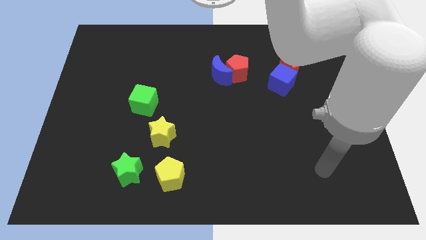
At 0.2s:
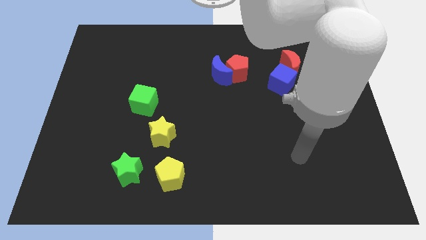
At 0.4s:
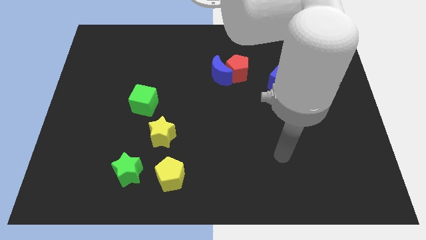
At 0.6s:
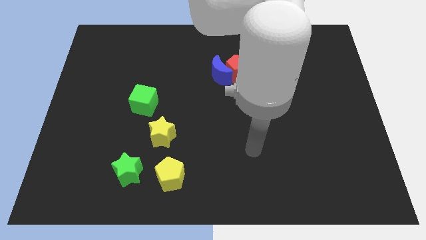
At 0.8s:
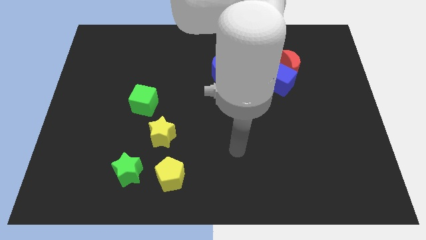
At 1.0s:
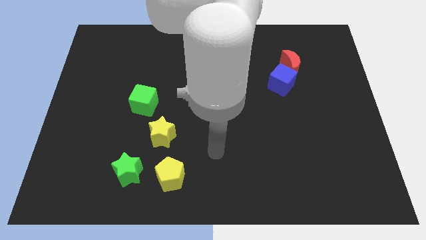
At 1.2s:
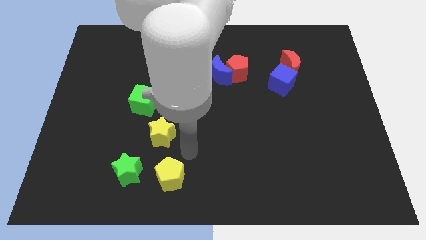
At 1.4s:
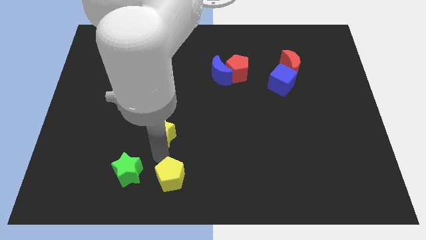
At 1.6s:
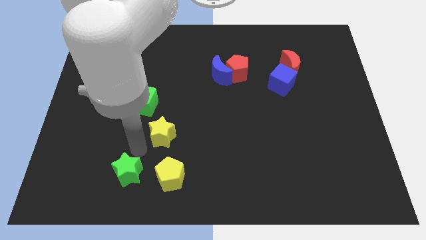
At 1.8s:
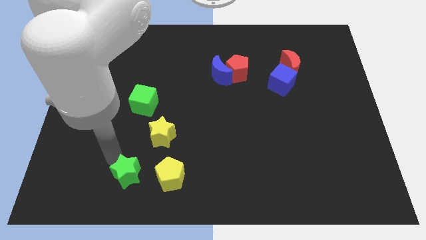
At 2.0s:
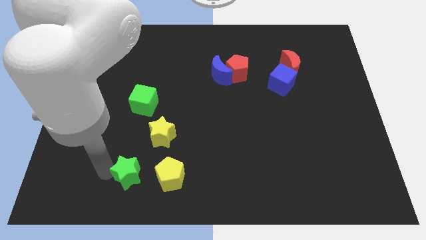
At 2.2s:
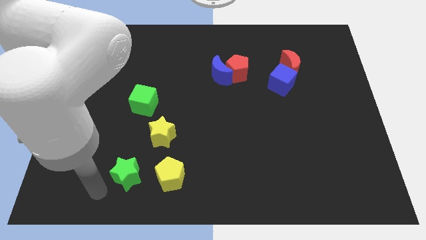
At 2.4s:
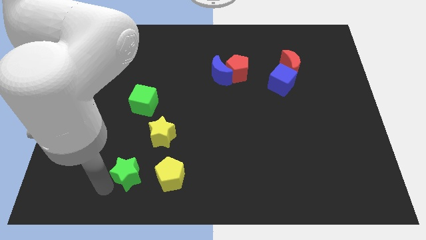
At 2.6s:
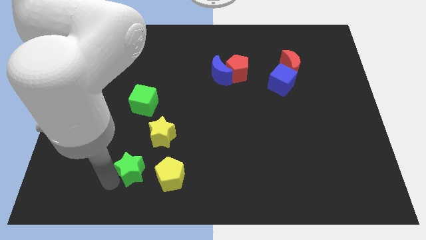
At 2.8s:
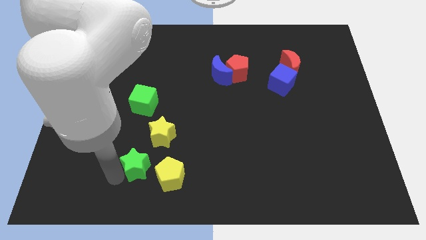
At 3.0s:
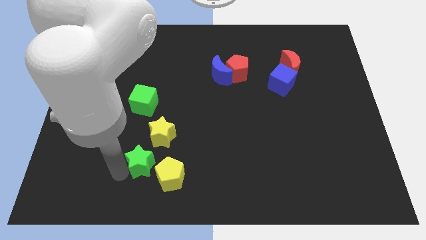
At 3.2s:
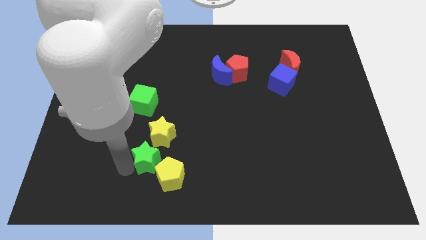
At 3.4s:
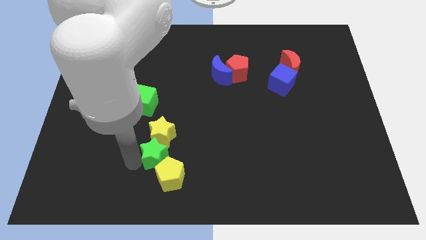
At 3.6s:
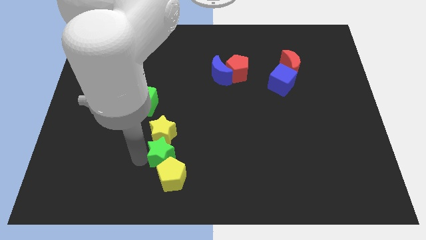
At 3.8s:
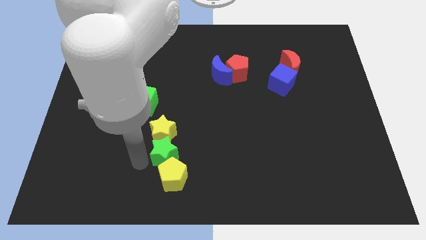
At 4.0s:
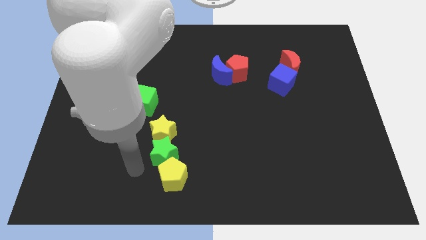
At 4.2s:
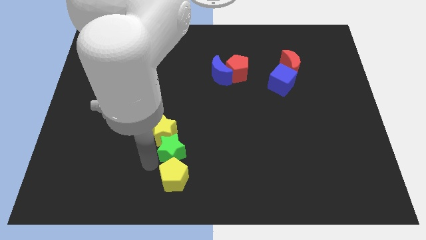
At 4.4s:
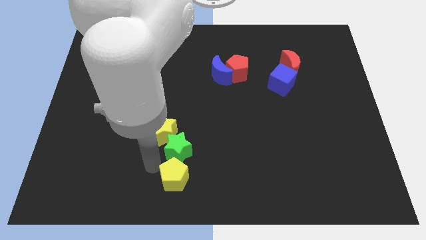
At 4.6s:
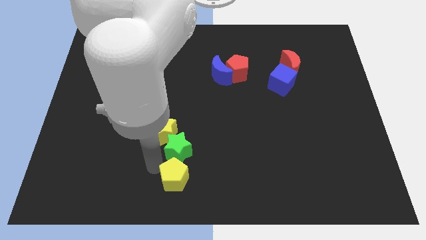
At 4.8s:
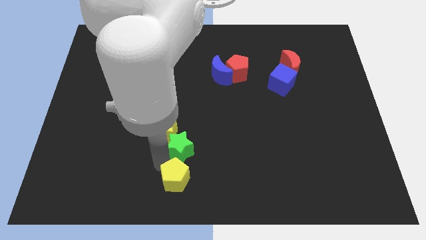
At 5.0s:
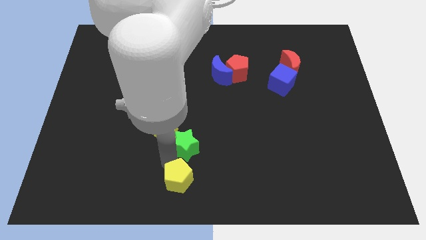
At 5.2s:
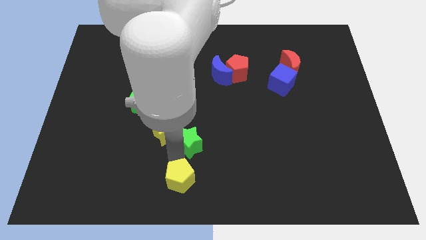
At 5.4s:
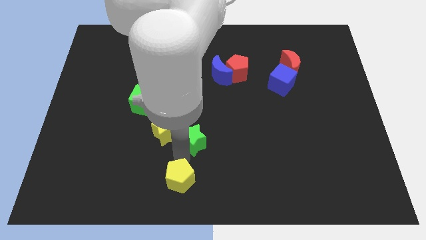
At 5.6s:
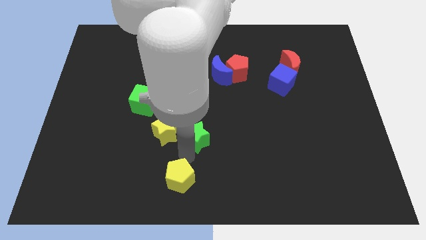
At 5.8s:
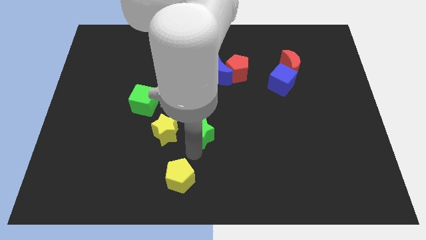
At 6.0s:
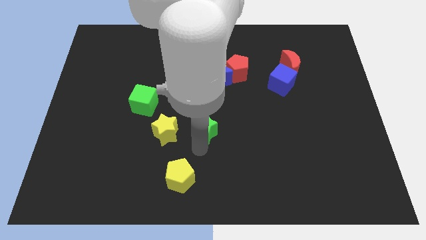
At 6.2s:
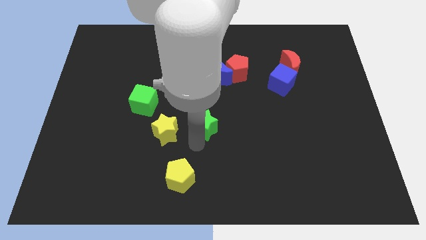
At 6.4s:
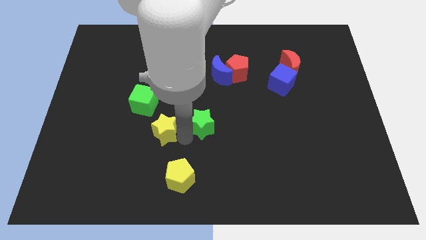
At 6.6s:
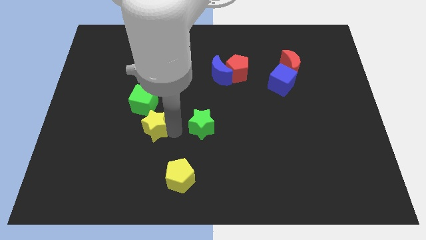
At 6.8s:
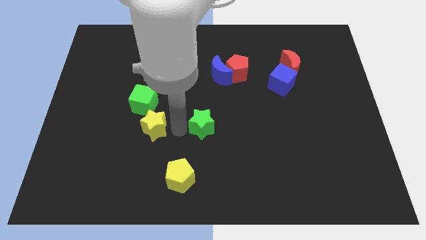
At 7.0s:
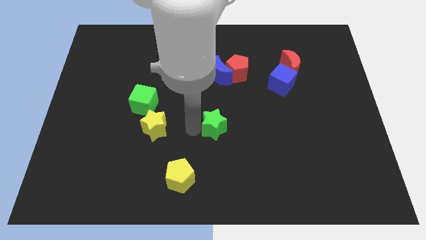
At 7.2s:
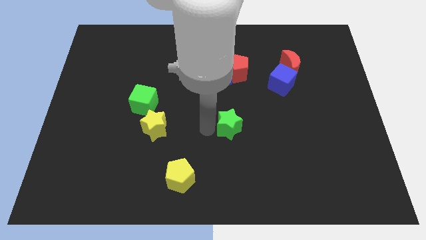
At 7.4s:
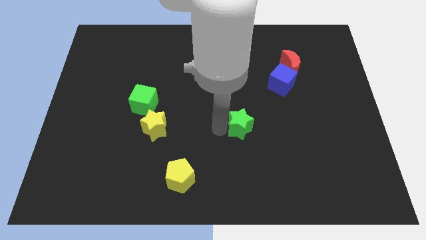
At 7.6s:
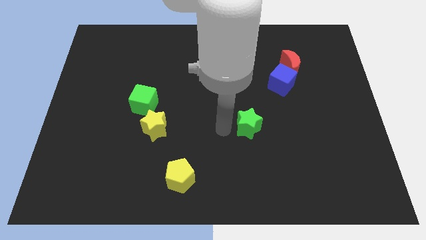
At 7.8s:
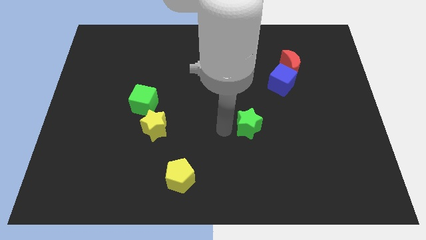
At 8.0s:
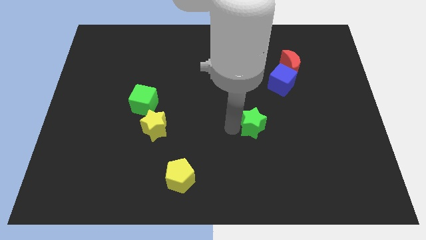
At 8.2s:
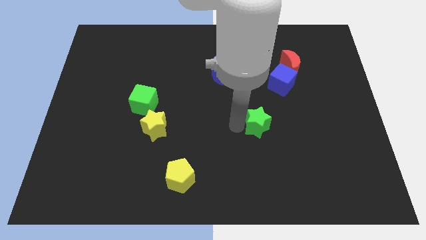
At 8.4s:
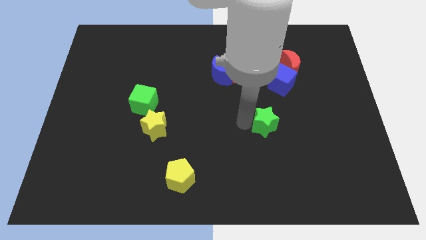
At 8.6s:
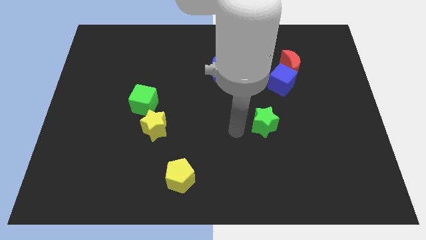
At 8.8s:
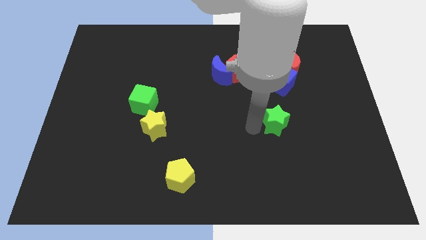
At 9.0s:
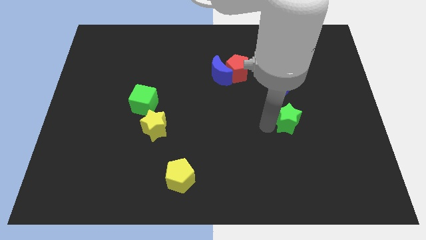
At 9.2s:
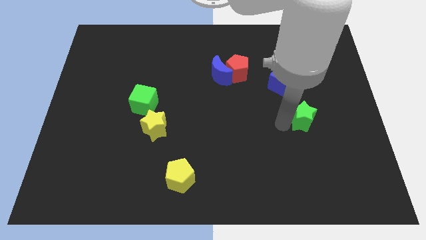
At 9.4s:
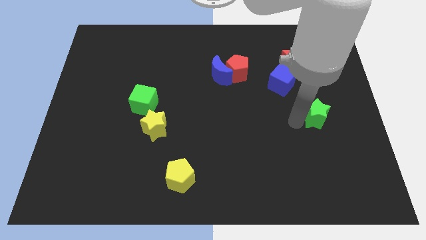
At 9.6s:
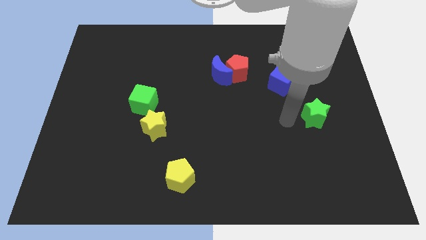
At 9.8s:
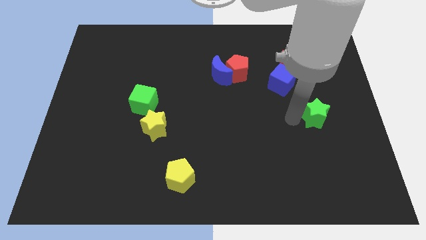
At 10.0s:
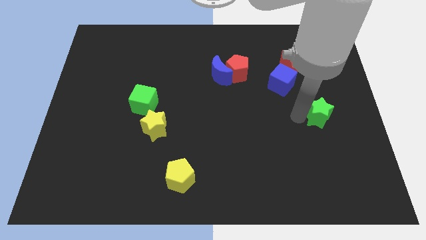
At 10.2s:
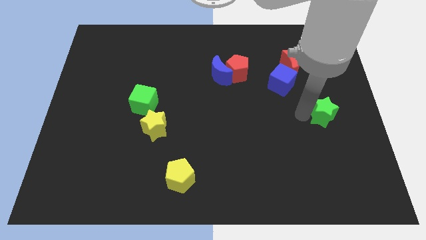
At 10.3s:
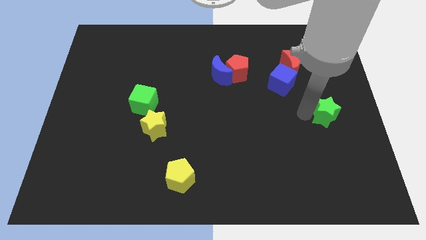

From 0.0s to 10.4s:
move the green star to the right side of the board

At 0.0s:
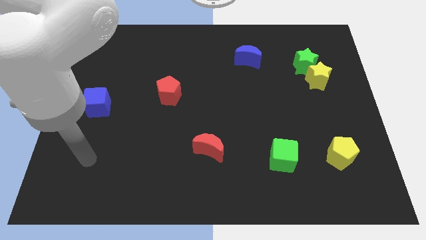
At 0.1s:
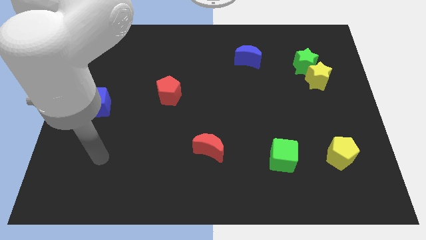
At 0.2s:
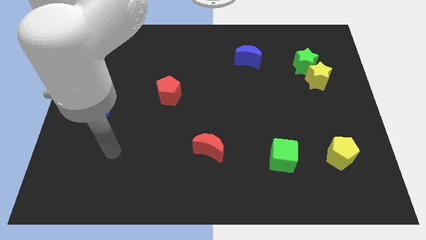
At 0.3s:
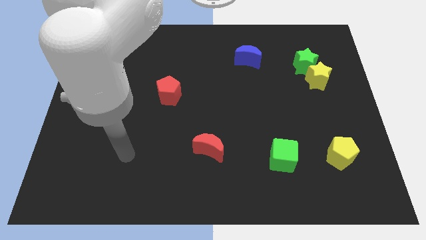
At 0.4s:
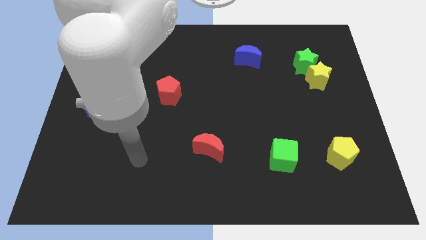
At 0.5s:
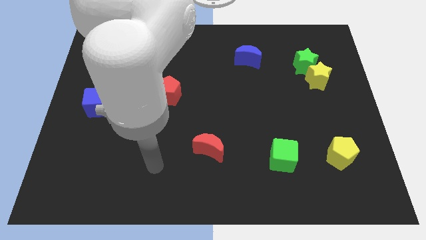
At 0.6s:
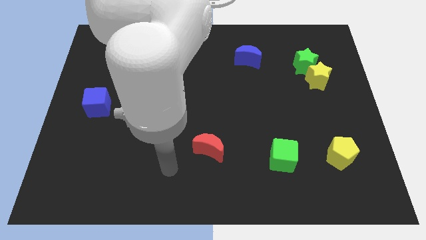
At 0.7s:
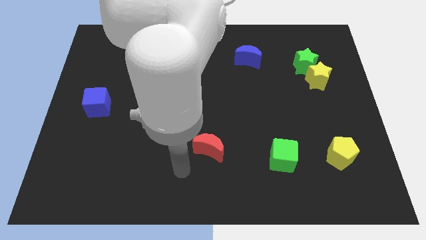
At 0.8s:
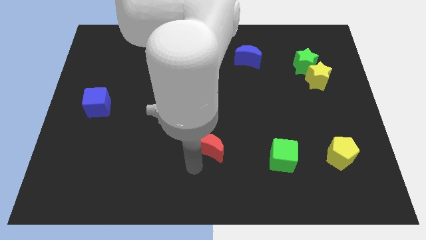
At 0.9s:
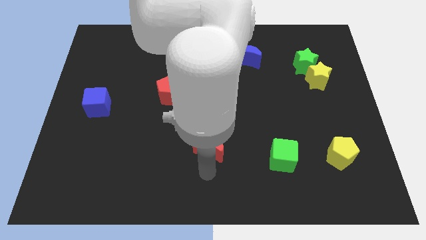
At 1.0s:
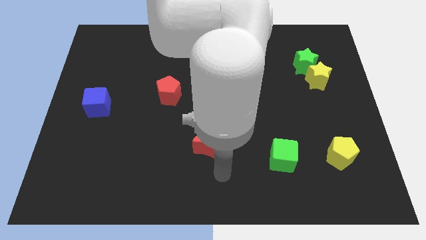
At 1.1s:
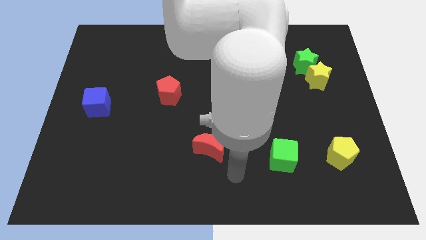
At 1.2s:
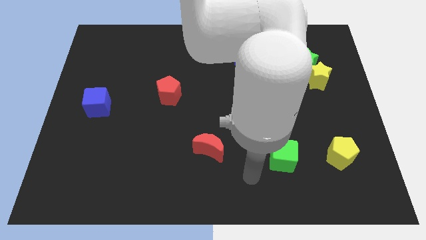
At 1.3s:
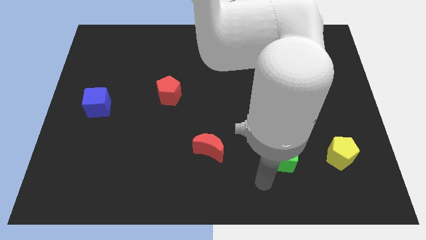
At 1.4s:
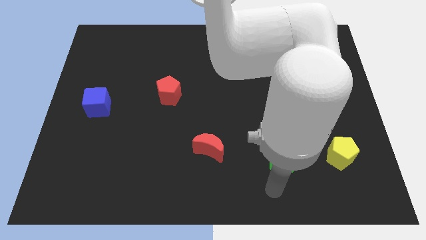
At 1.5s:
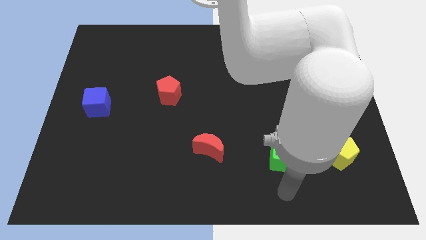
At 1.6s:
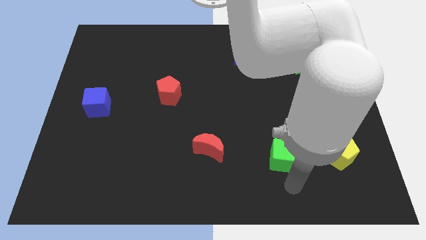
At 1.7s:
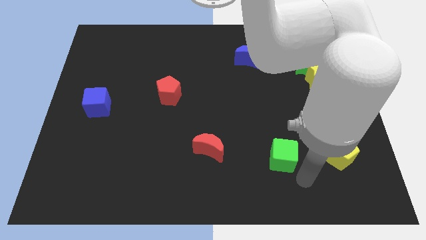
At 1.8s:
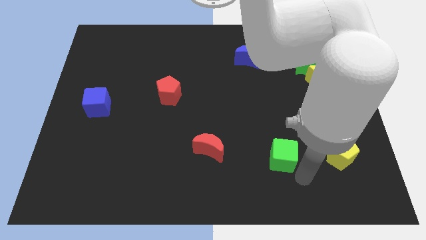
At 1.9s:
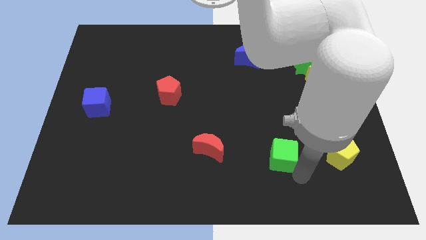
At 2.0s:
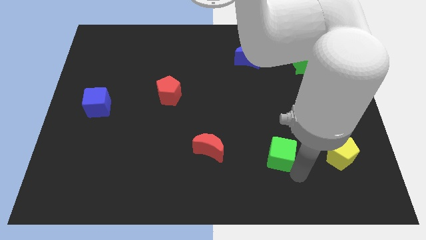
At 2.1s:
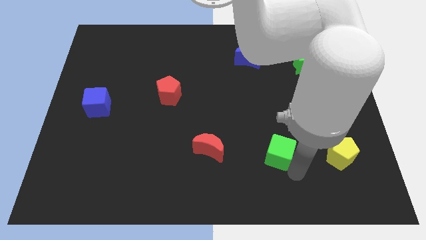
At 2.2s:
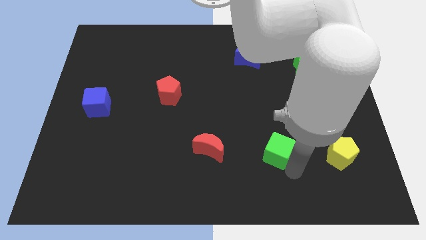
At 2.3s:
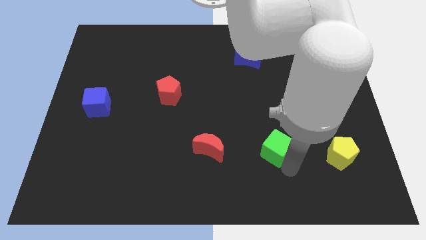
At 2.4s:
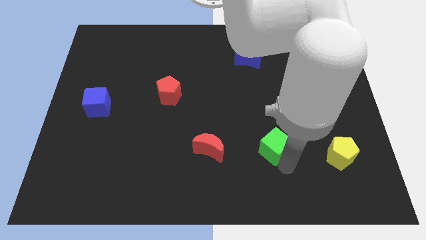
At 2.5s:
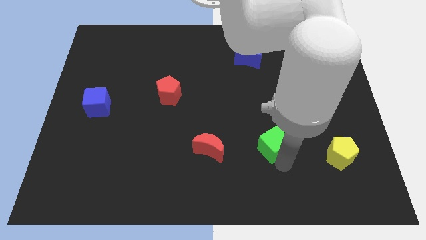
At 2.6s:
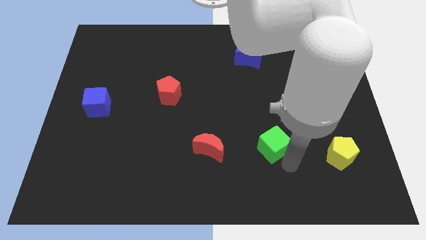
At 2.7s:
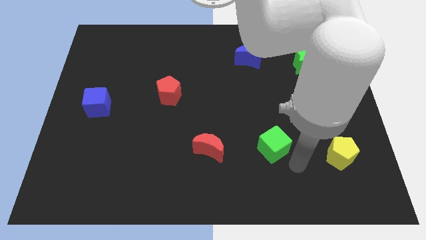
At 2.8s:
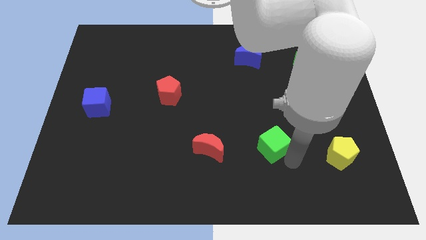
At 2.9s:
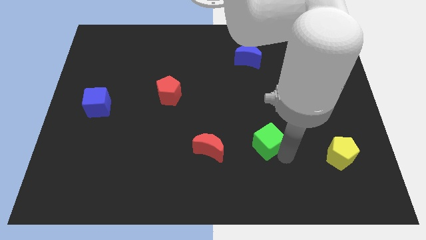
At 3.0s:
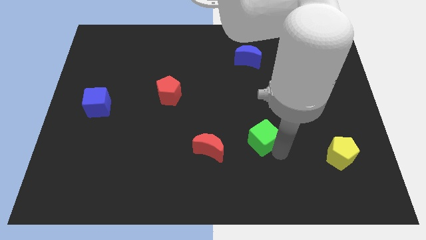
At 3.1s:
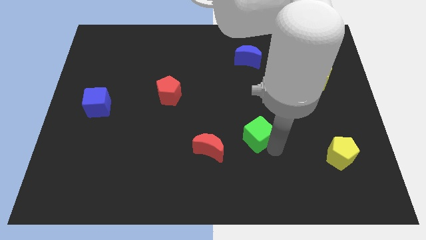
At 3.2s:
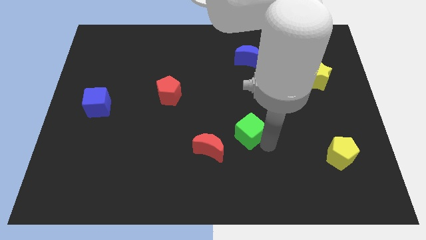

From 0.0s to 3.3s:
put the green cube to the middle
